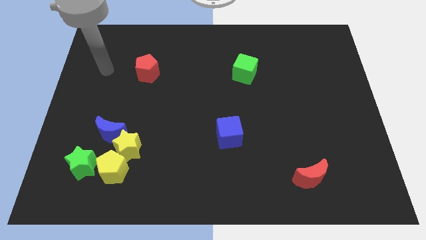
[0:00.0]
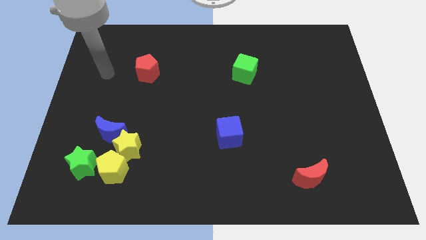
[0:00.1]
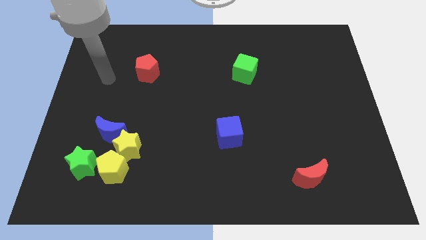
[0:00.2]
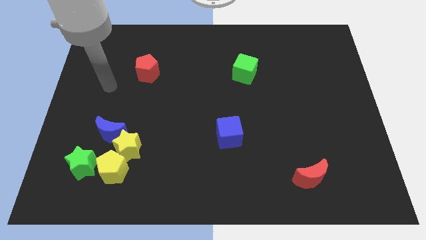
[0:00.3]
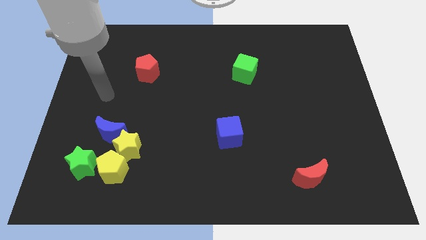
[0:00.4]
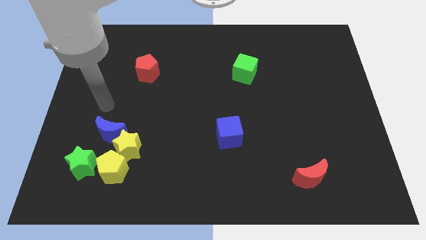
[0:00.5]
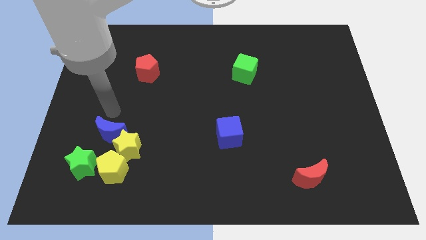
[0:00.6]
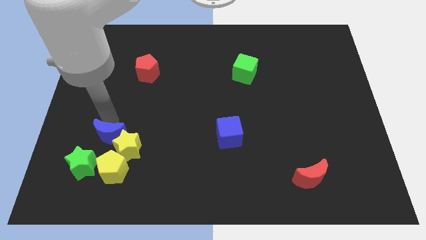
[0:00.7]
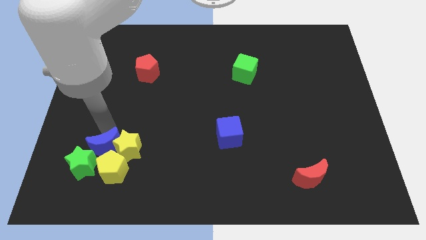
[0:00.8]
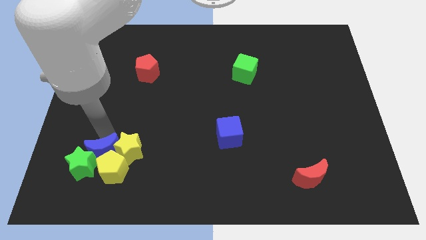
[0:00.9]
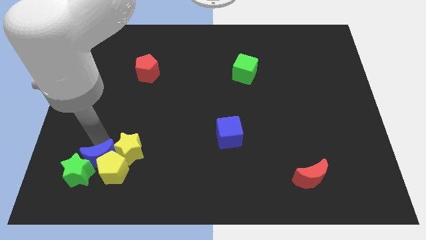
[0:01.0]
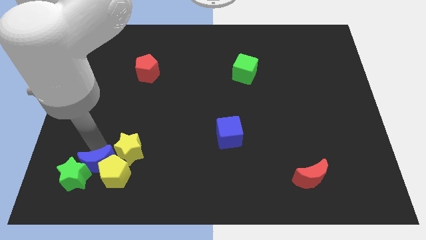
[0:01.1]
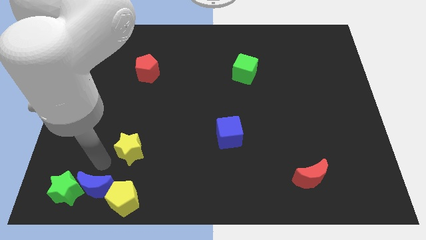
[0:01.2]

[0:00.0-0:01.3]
separate the yellow star from the clump

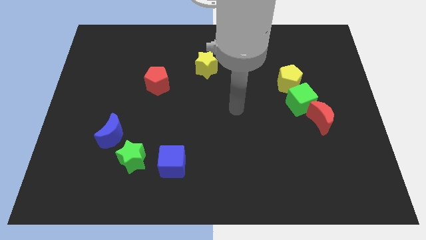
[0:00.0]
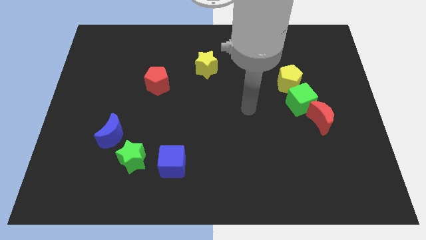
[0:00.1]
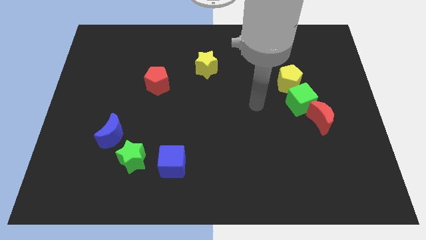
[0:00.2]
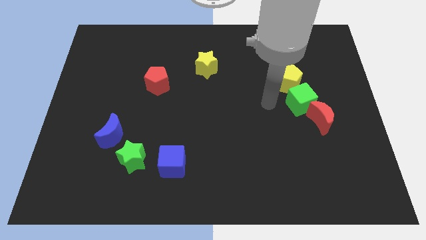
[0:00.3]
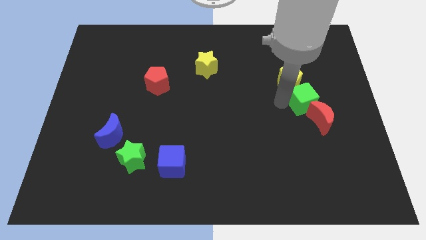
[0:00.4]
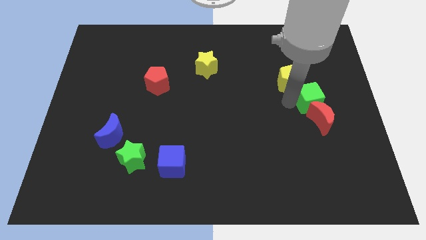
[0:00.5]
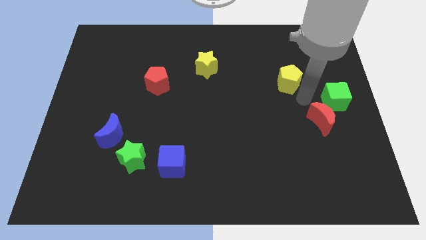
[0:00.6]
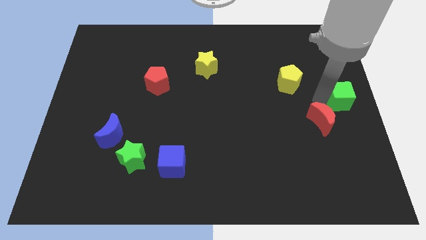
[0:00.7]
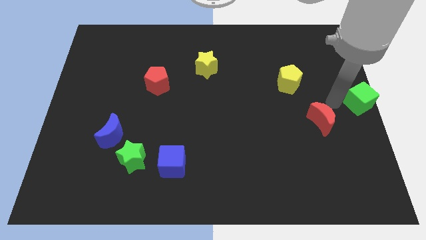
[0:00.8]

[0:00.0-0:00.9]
pull the red moon apart from the green cube

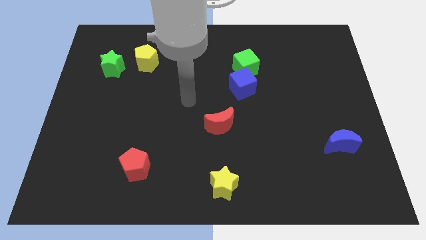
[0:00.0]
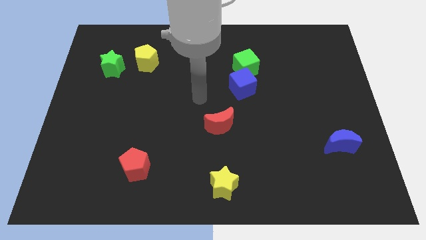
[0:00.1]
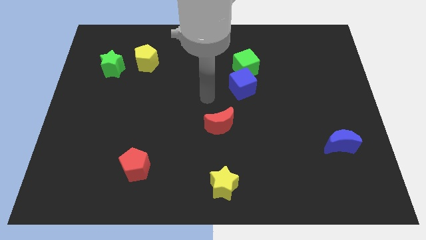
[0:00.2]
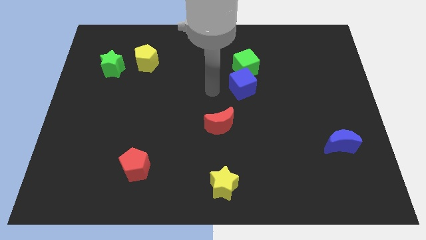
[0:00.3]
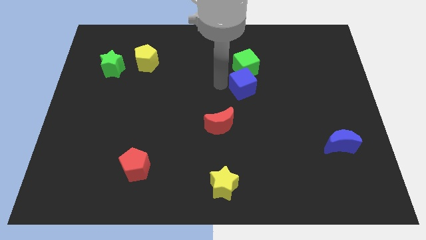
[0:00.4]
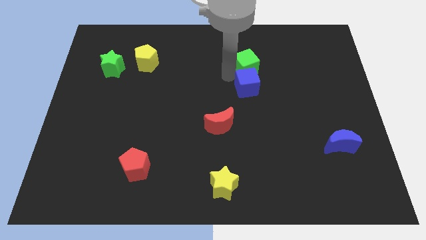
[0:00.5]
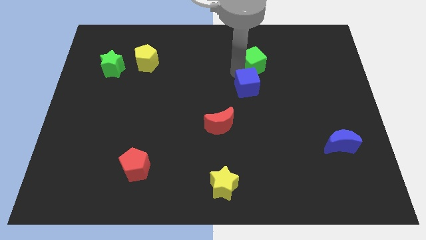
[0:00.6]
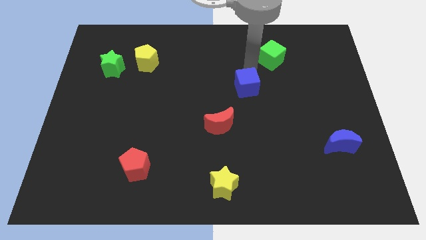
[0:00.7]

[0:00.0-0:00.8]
pull the blue cube apart from the green cube

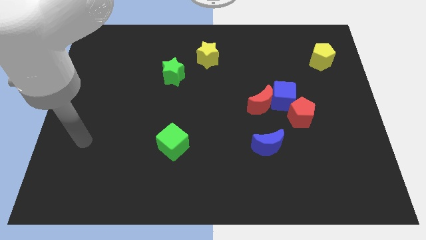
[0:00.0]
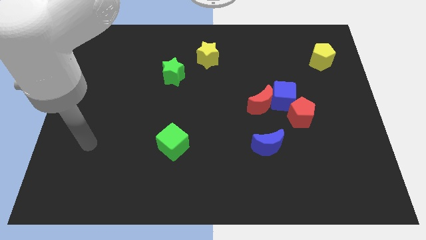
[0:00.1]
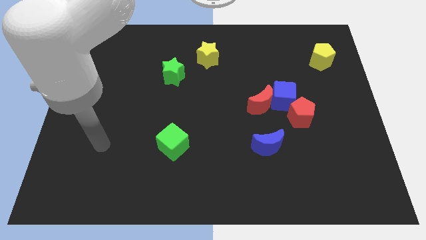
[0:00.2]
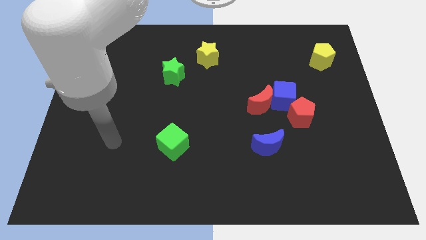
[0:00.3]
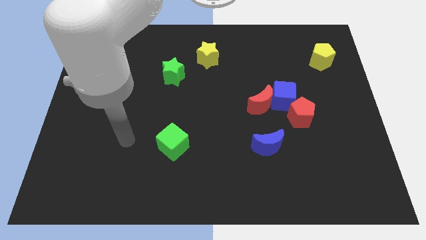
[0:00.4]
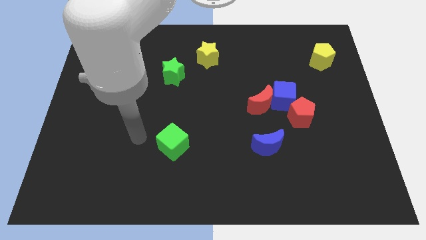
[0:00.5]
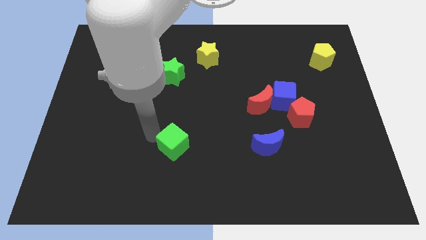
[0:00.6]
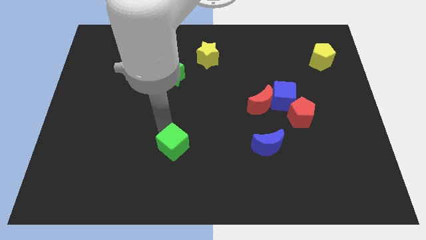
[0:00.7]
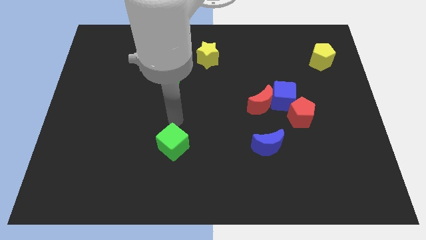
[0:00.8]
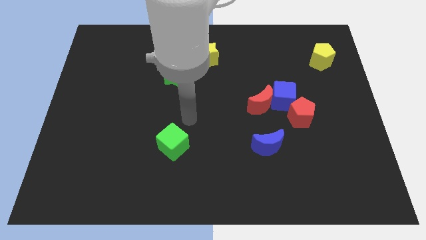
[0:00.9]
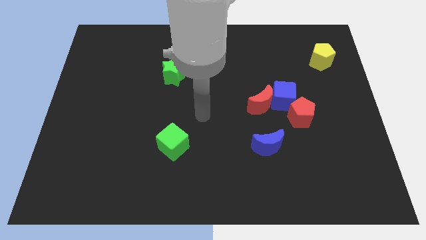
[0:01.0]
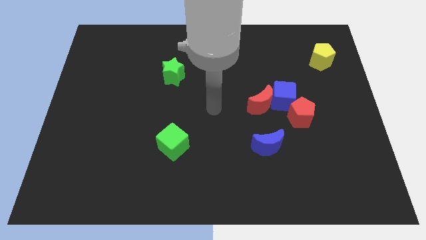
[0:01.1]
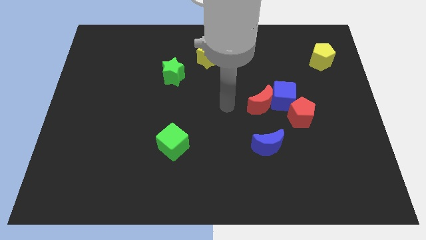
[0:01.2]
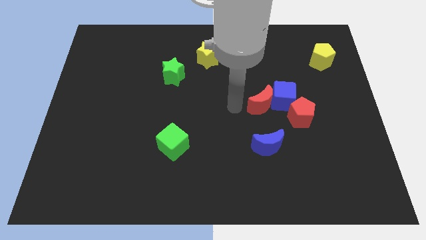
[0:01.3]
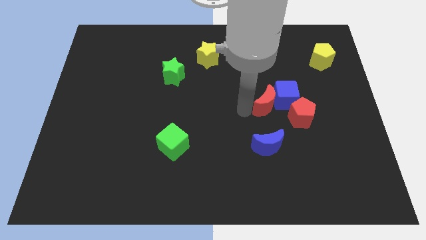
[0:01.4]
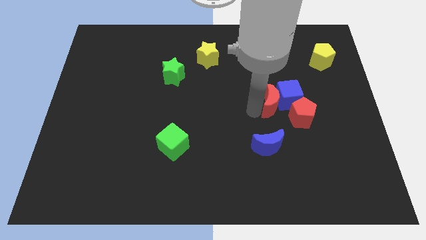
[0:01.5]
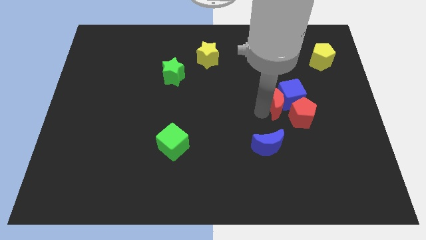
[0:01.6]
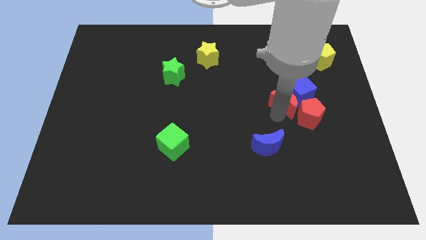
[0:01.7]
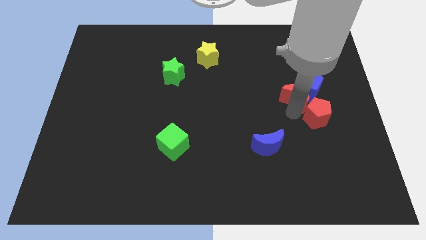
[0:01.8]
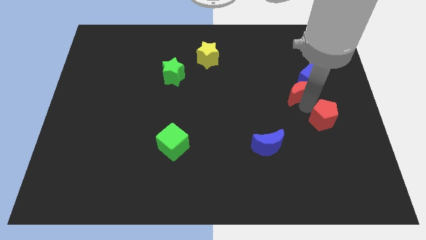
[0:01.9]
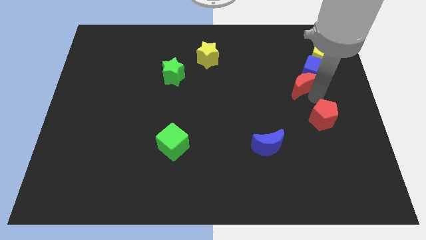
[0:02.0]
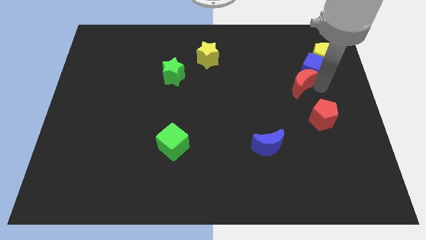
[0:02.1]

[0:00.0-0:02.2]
move the blue cube away from the red moon and red pentagon

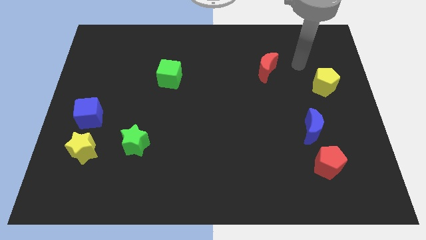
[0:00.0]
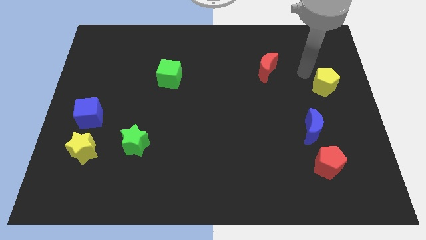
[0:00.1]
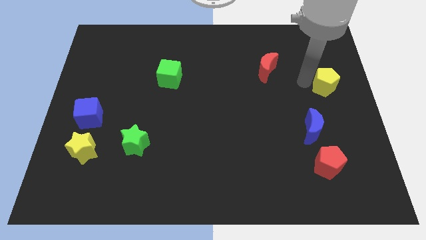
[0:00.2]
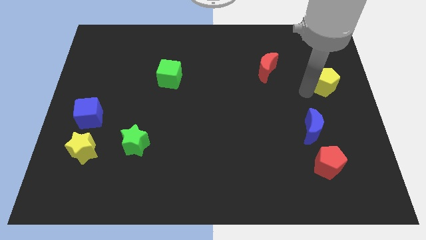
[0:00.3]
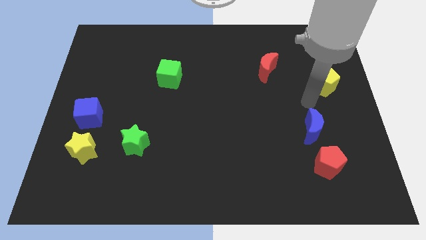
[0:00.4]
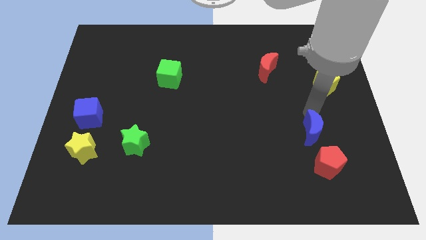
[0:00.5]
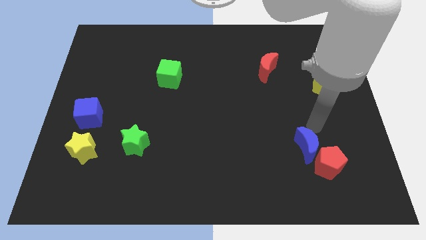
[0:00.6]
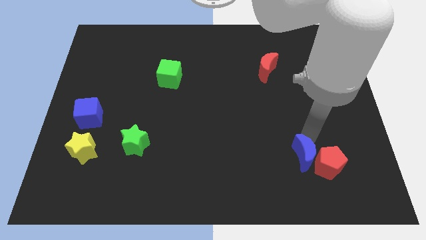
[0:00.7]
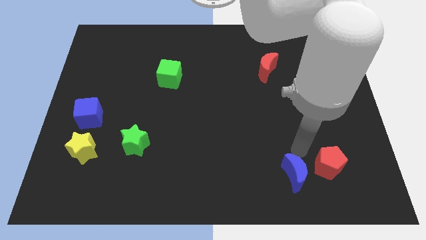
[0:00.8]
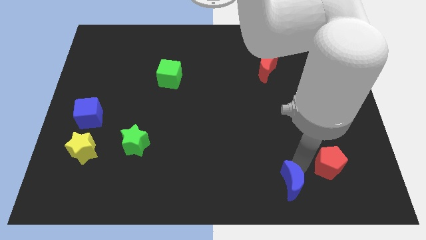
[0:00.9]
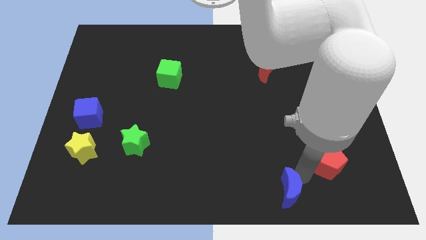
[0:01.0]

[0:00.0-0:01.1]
pull the red pentagon apart from the blue moon

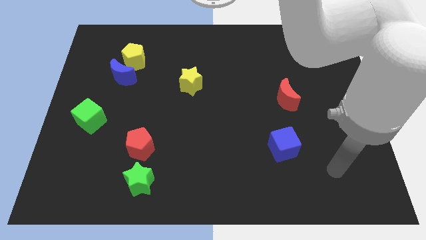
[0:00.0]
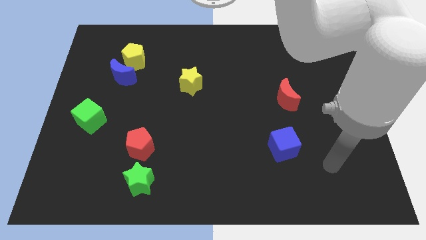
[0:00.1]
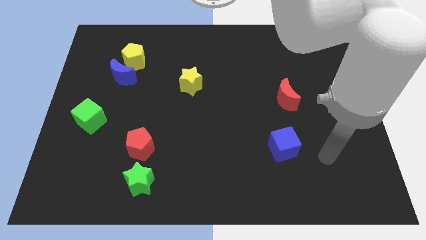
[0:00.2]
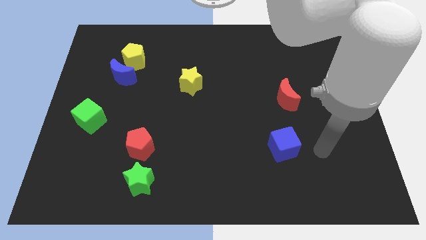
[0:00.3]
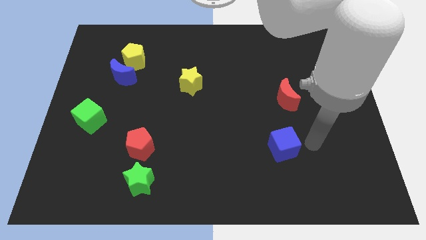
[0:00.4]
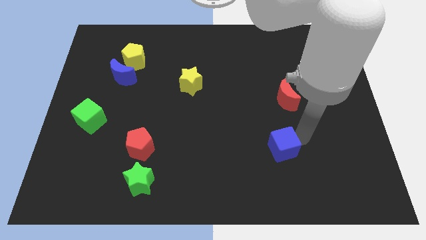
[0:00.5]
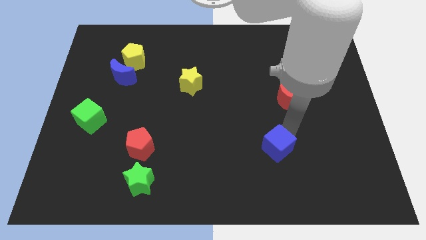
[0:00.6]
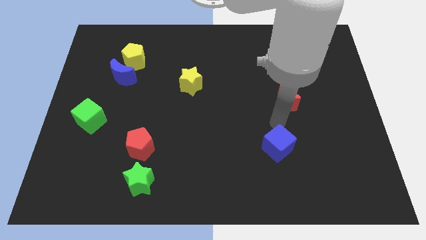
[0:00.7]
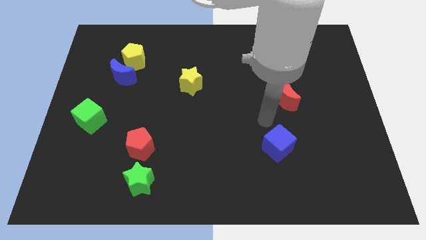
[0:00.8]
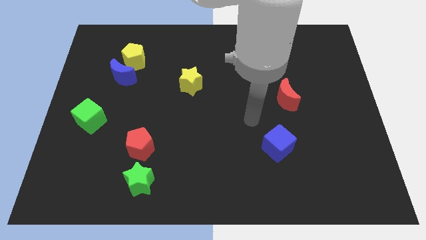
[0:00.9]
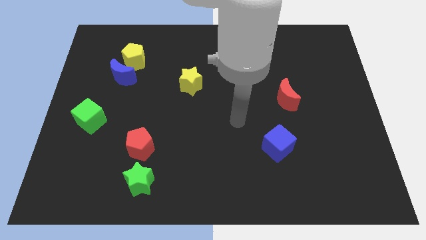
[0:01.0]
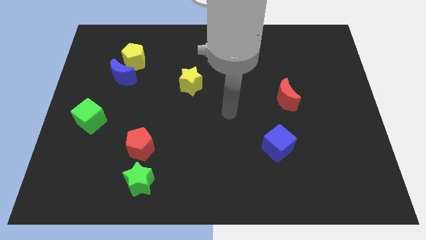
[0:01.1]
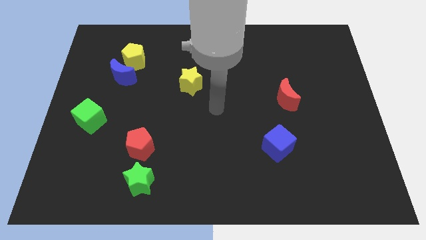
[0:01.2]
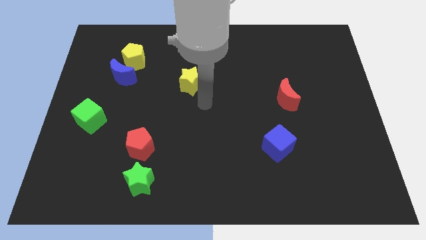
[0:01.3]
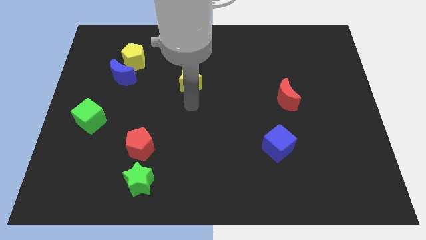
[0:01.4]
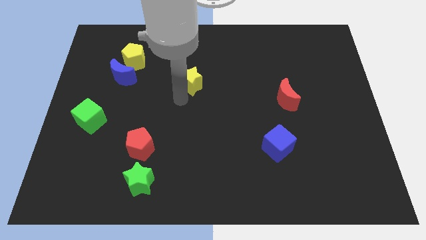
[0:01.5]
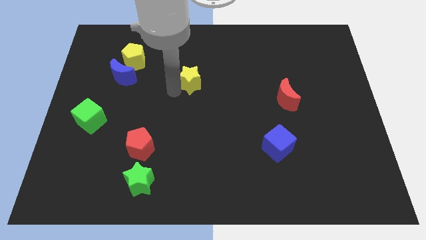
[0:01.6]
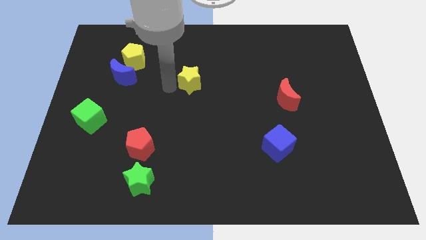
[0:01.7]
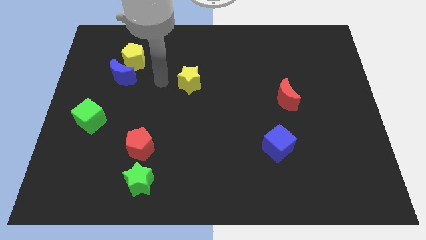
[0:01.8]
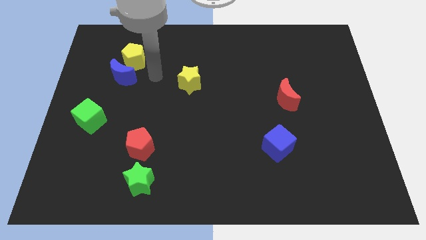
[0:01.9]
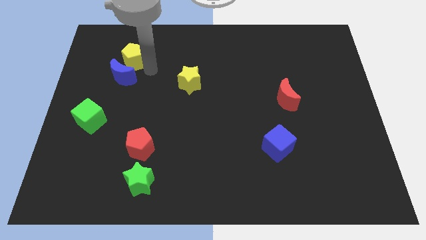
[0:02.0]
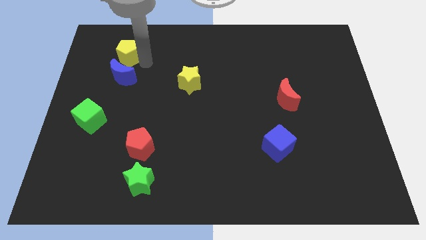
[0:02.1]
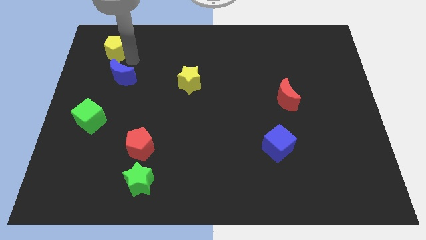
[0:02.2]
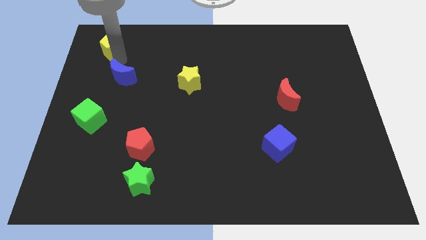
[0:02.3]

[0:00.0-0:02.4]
pull the blue moon apart from the yellow pentagon

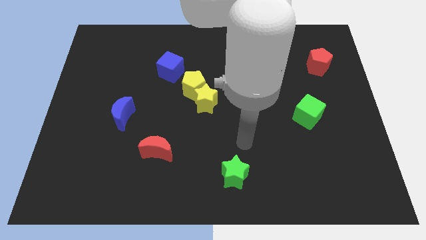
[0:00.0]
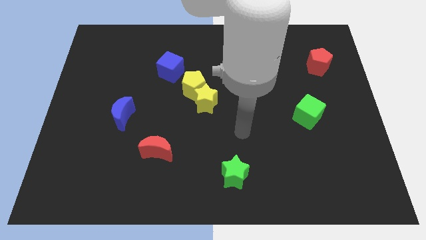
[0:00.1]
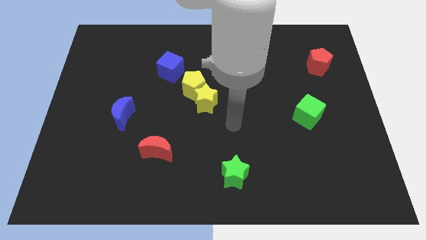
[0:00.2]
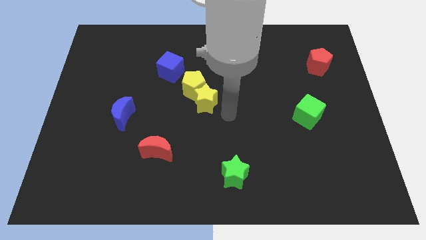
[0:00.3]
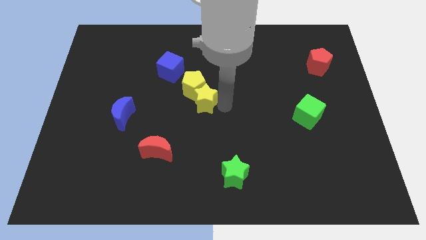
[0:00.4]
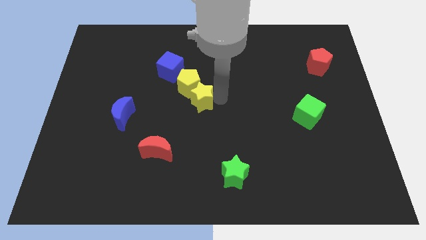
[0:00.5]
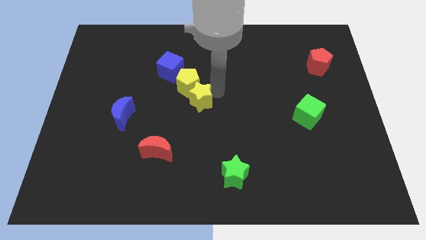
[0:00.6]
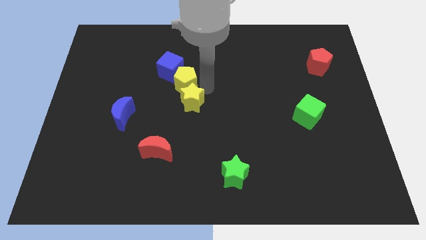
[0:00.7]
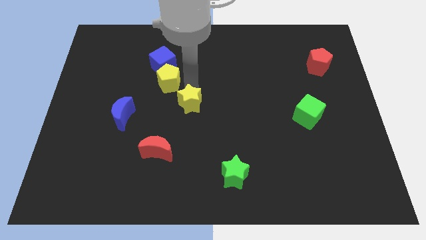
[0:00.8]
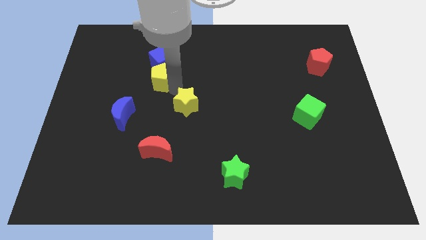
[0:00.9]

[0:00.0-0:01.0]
separate the yellow star from the yellow pentagon
